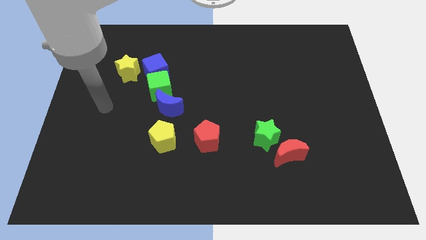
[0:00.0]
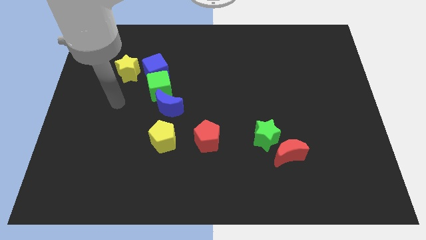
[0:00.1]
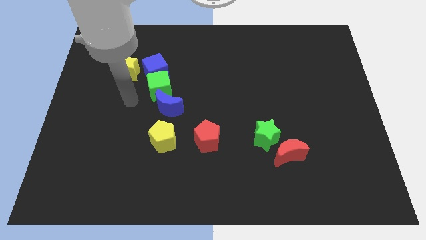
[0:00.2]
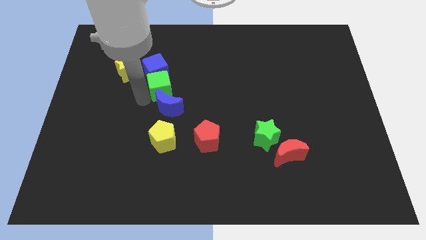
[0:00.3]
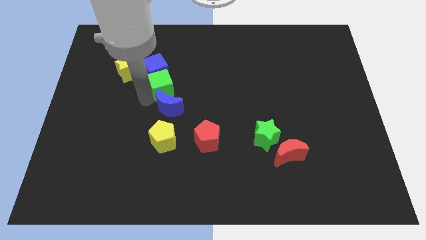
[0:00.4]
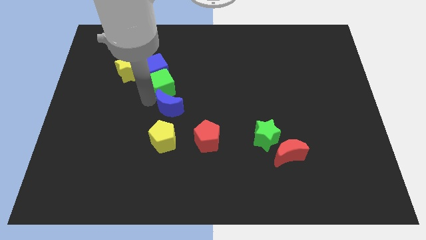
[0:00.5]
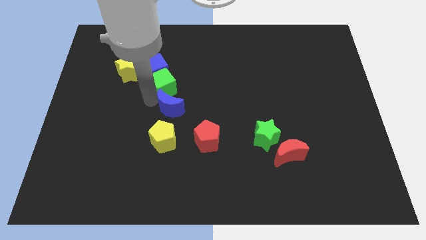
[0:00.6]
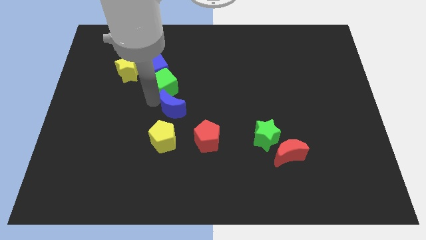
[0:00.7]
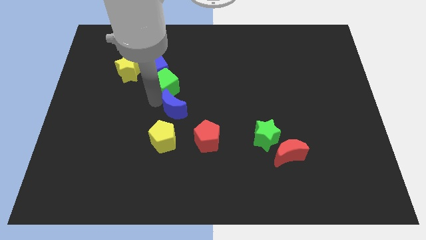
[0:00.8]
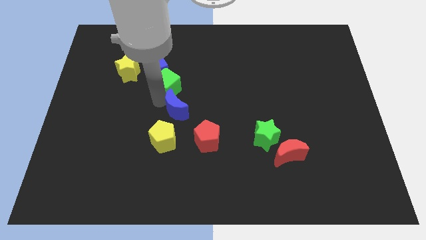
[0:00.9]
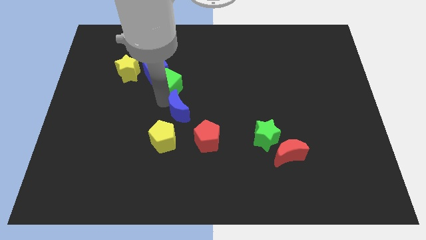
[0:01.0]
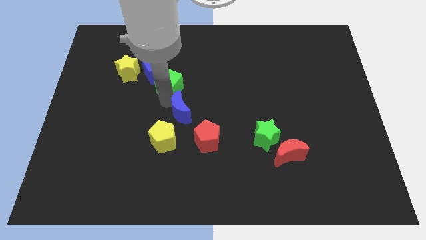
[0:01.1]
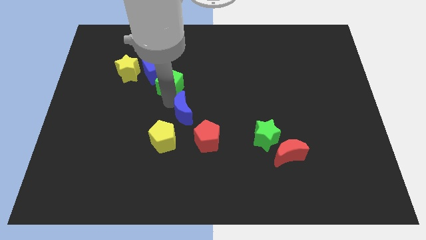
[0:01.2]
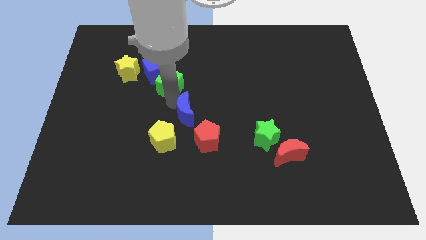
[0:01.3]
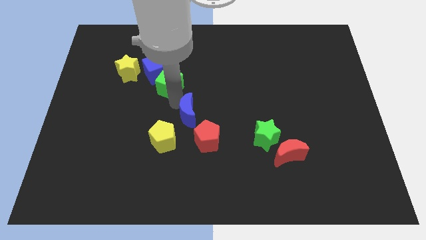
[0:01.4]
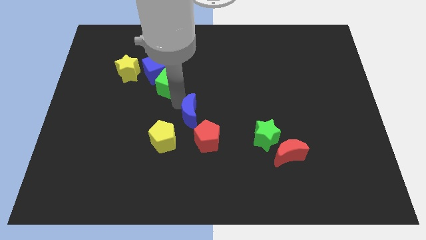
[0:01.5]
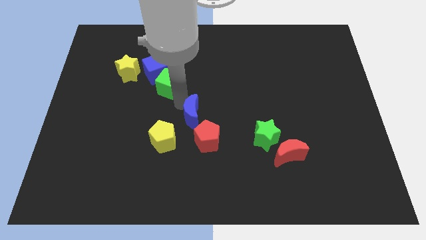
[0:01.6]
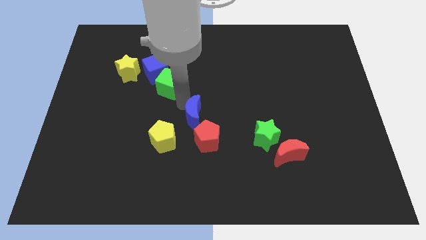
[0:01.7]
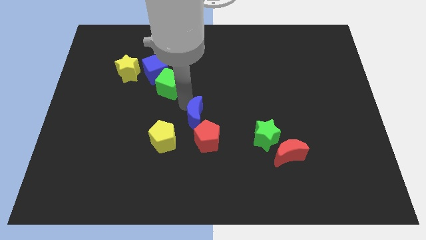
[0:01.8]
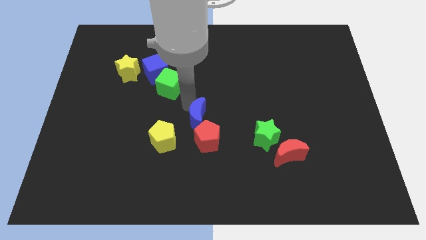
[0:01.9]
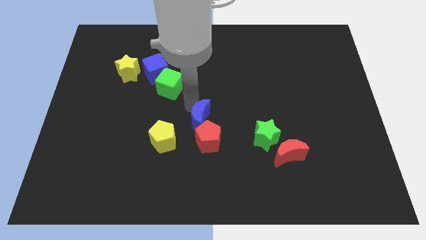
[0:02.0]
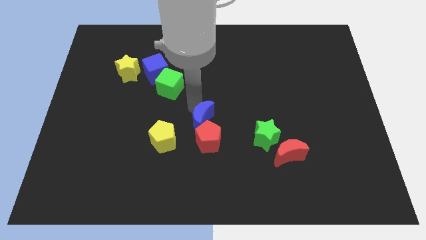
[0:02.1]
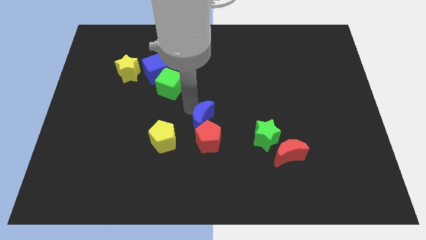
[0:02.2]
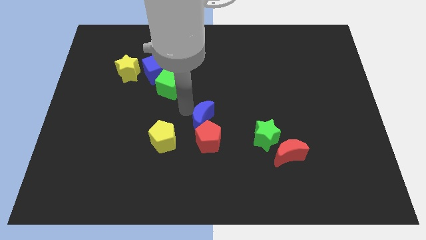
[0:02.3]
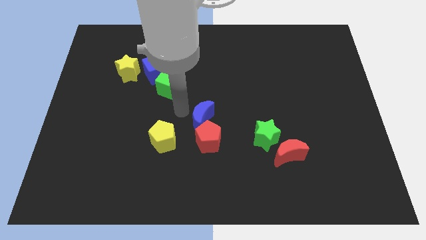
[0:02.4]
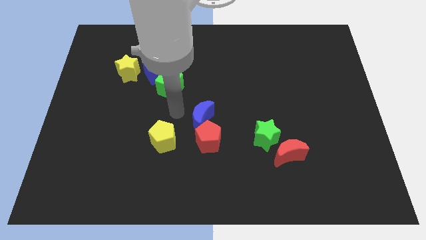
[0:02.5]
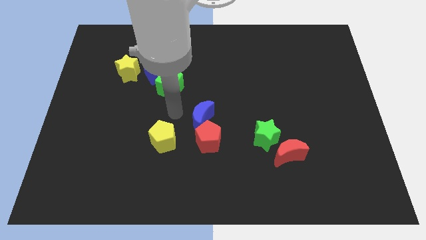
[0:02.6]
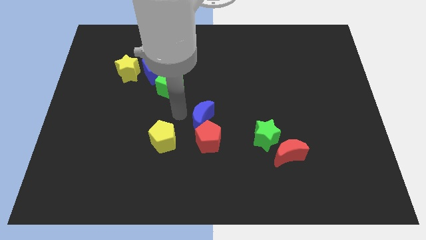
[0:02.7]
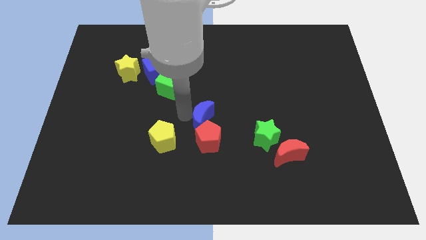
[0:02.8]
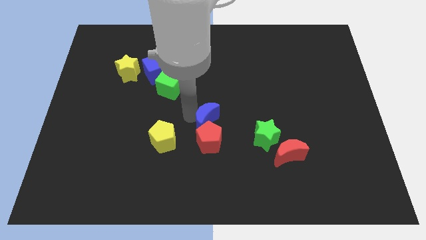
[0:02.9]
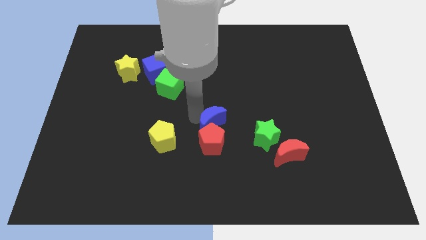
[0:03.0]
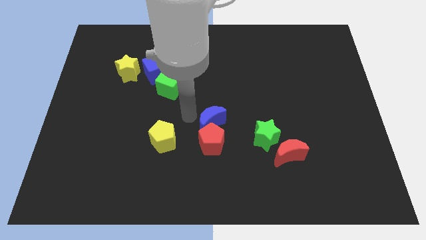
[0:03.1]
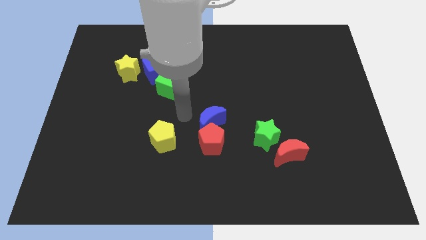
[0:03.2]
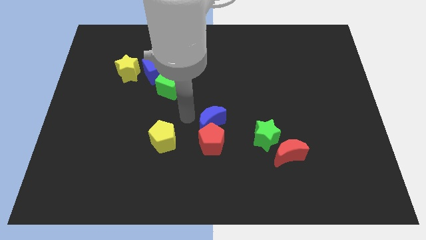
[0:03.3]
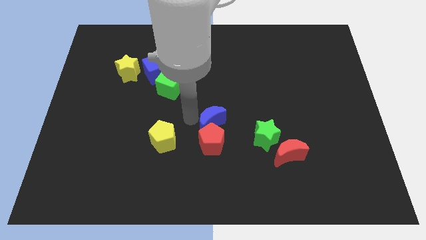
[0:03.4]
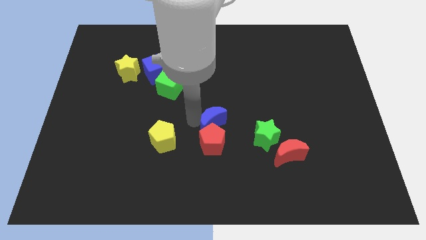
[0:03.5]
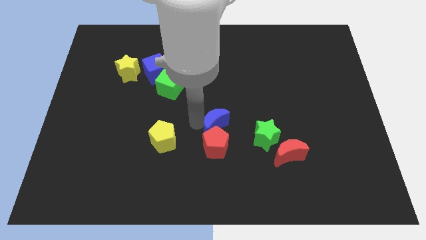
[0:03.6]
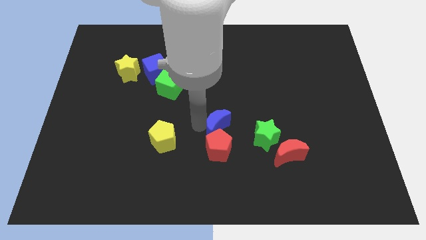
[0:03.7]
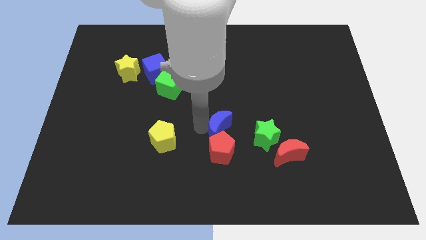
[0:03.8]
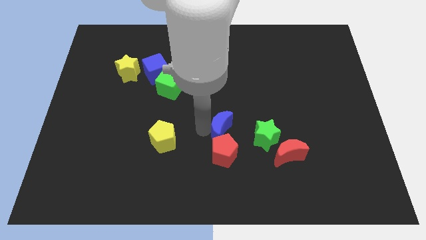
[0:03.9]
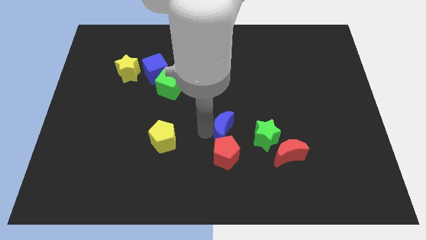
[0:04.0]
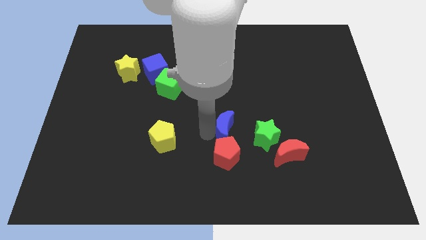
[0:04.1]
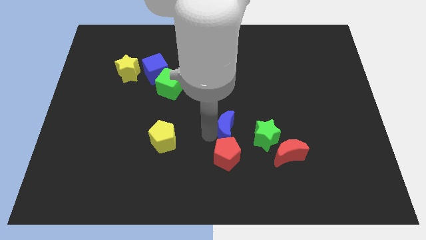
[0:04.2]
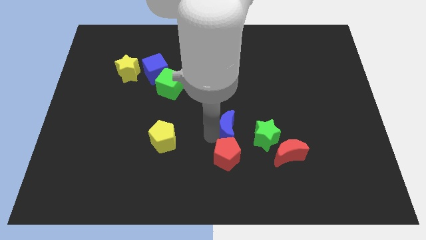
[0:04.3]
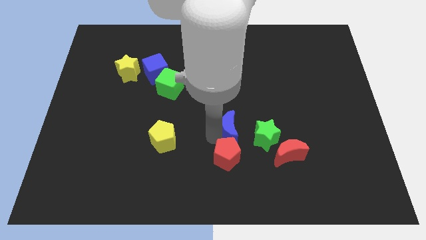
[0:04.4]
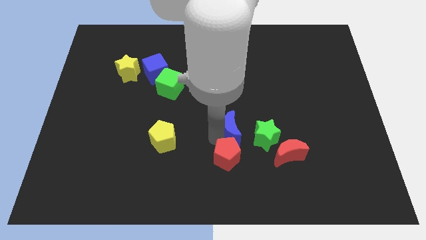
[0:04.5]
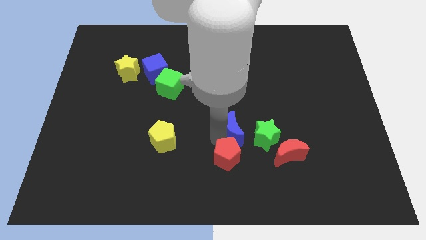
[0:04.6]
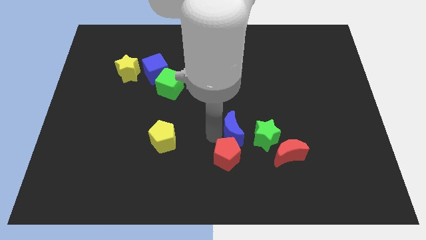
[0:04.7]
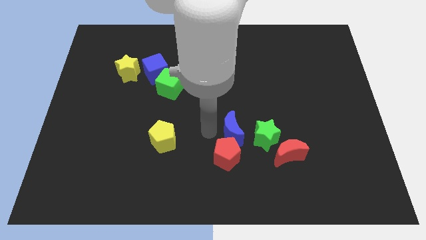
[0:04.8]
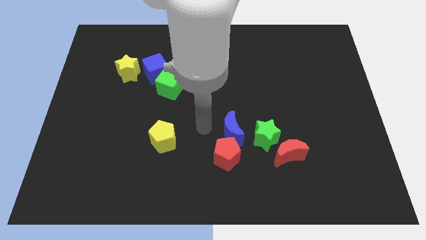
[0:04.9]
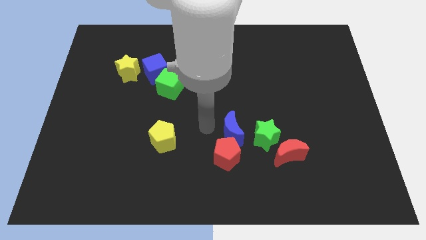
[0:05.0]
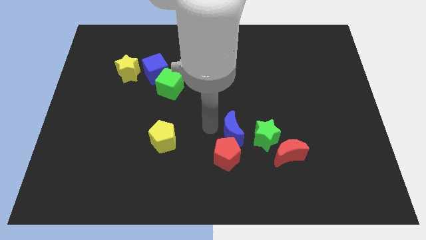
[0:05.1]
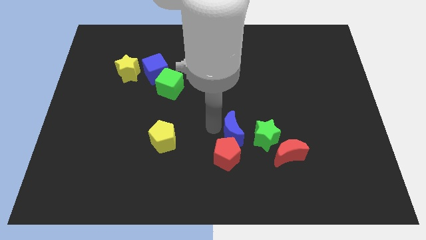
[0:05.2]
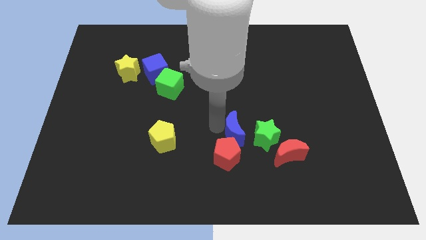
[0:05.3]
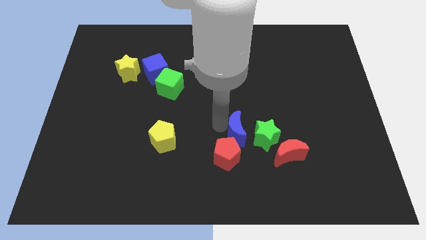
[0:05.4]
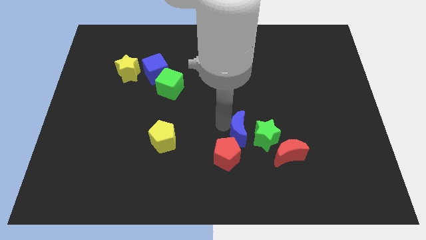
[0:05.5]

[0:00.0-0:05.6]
put the blue moon towards the green star

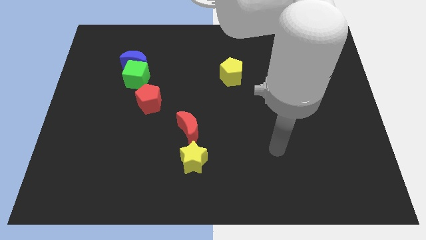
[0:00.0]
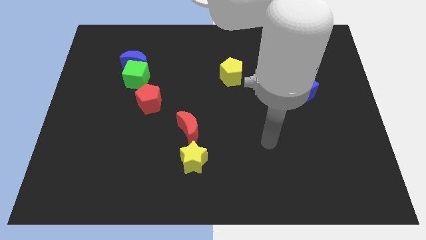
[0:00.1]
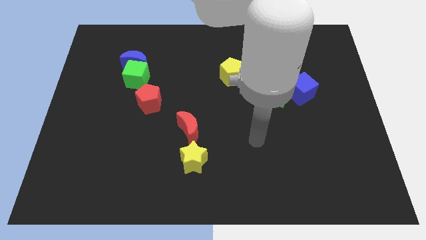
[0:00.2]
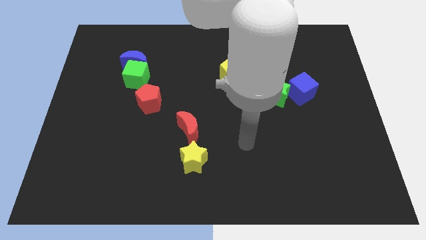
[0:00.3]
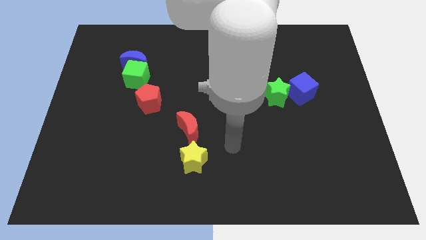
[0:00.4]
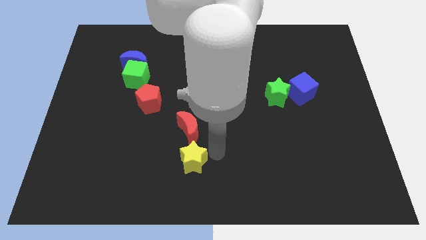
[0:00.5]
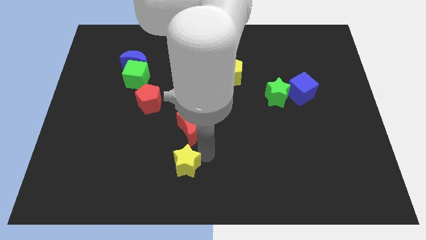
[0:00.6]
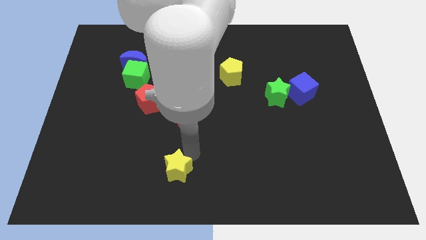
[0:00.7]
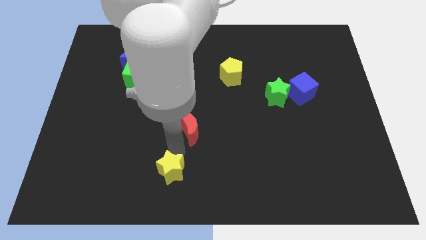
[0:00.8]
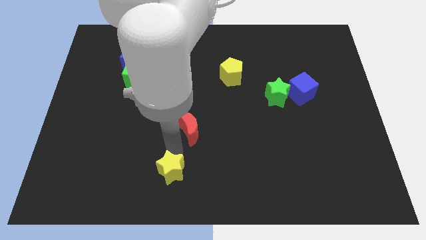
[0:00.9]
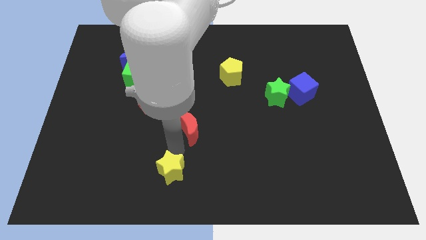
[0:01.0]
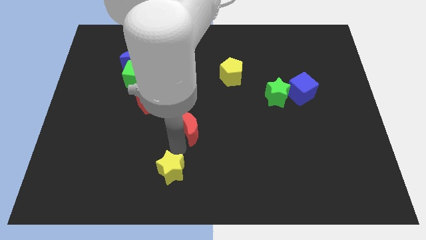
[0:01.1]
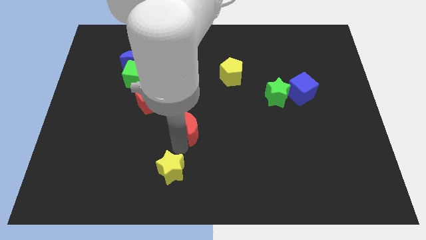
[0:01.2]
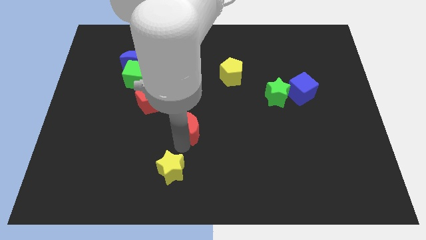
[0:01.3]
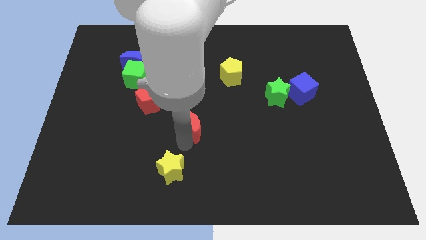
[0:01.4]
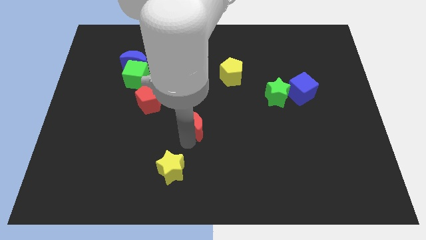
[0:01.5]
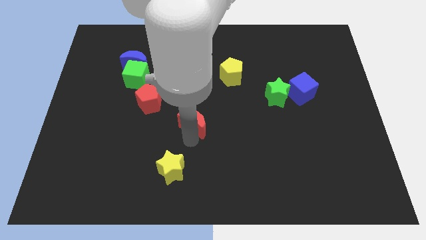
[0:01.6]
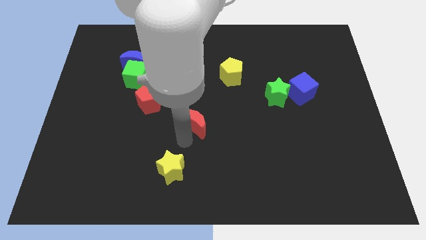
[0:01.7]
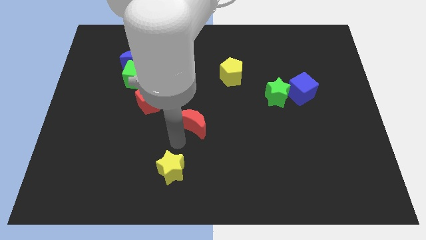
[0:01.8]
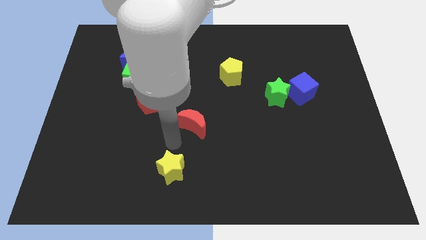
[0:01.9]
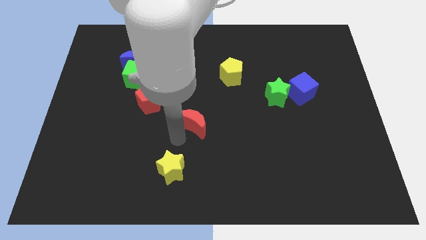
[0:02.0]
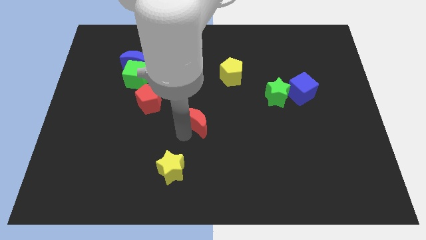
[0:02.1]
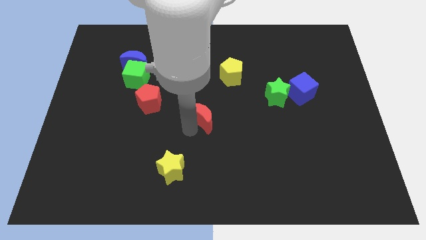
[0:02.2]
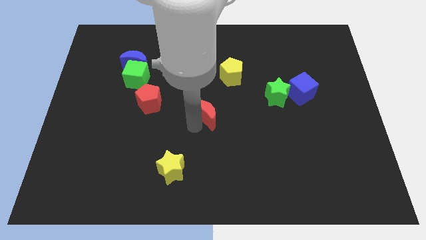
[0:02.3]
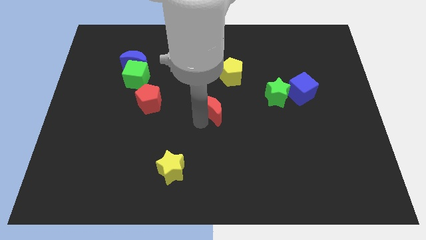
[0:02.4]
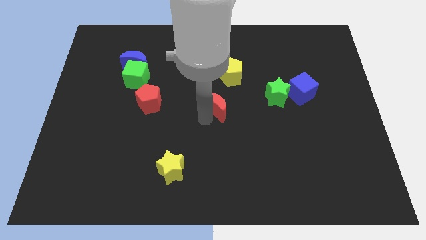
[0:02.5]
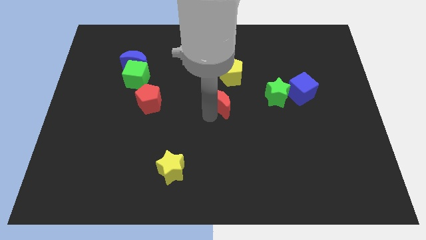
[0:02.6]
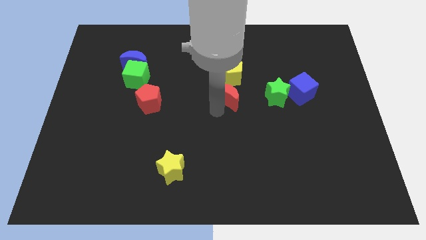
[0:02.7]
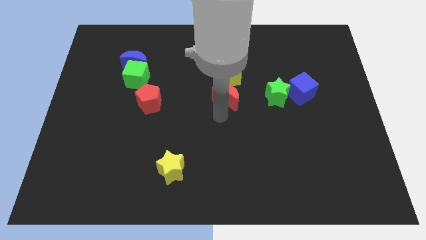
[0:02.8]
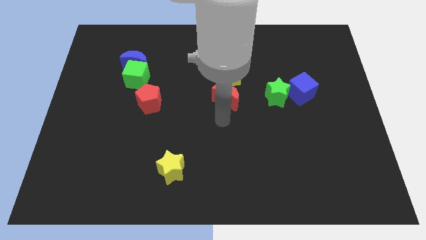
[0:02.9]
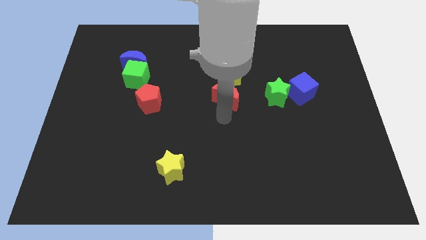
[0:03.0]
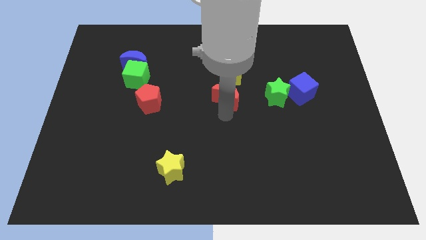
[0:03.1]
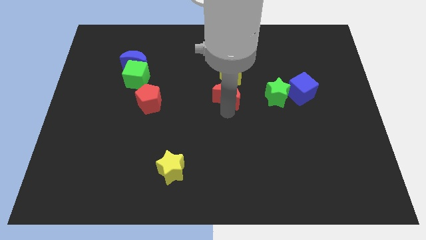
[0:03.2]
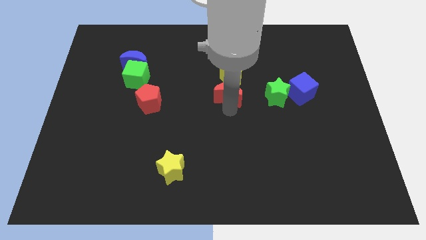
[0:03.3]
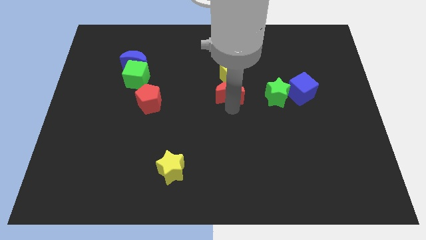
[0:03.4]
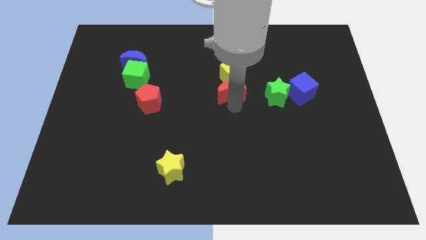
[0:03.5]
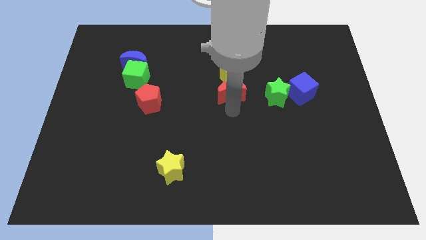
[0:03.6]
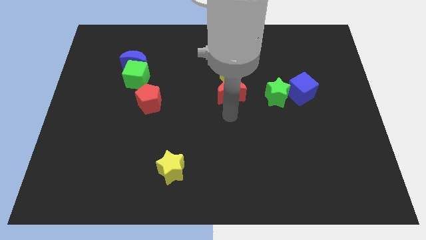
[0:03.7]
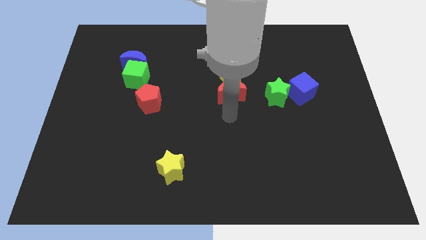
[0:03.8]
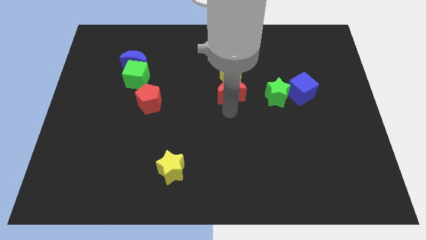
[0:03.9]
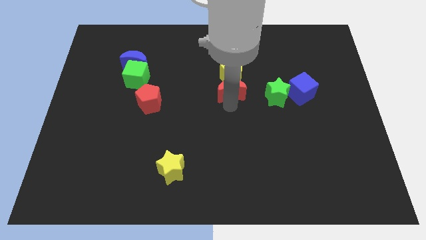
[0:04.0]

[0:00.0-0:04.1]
put the red moon to the yellow pentagon
